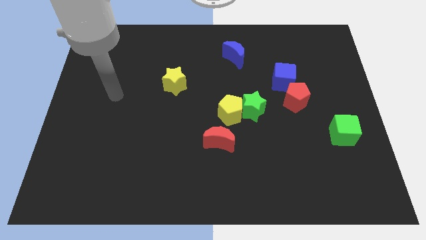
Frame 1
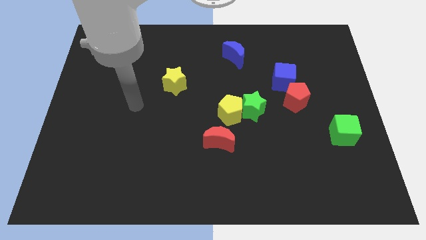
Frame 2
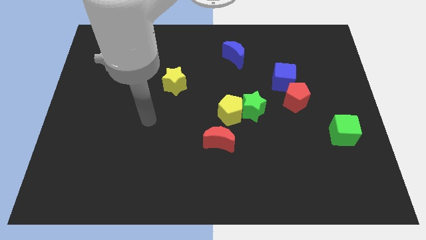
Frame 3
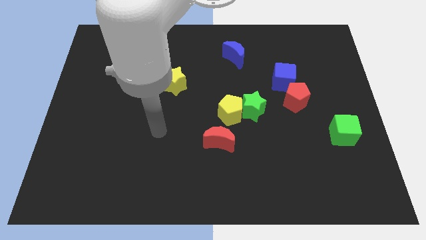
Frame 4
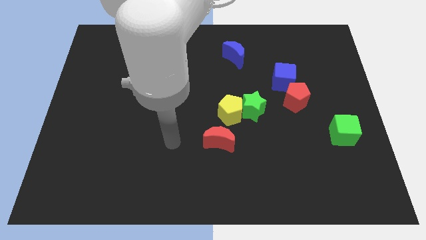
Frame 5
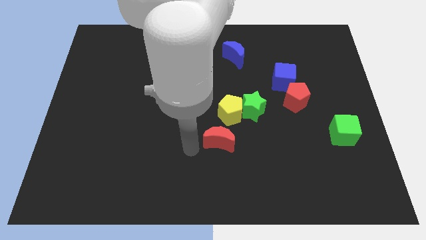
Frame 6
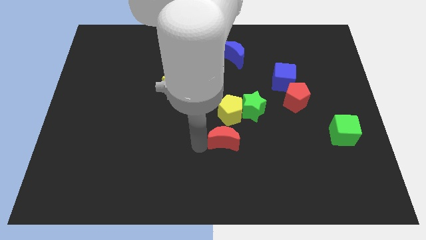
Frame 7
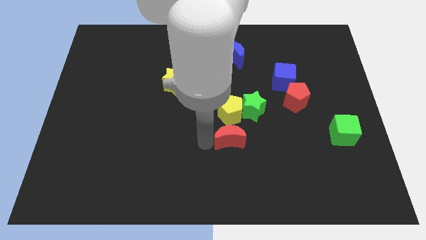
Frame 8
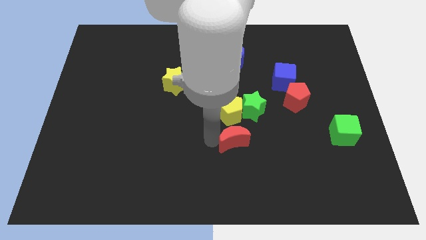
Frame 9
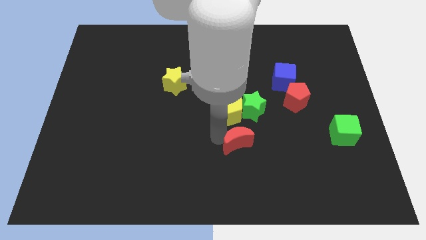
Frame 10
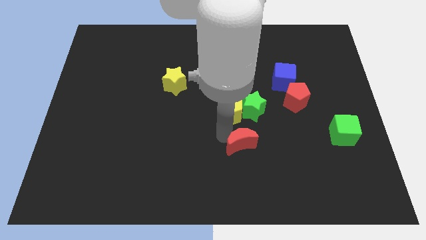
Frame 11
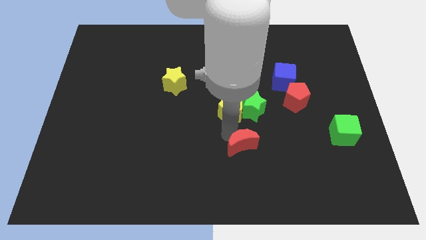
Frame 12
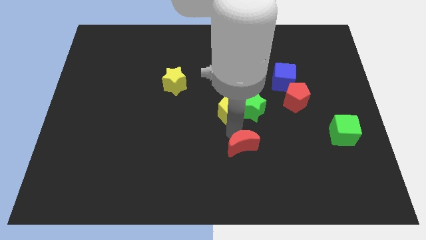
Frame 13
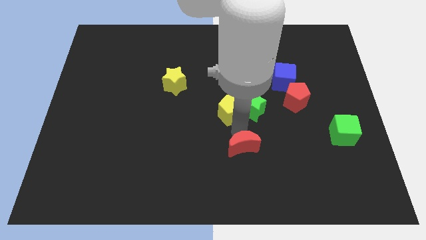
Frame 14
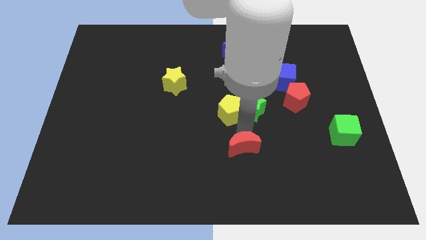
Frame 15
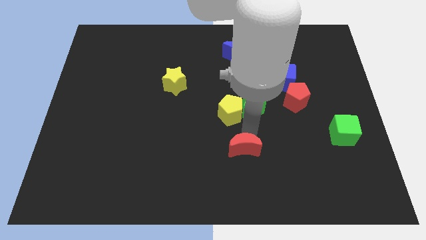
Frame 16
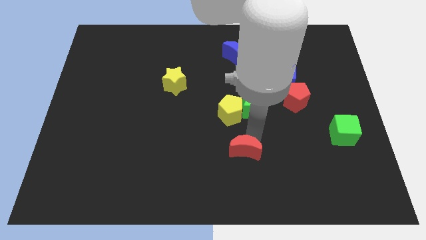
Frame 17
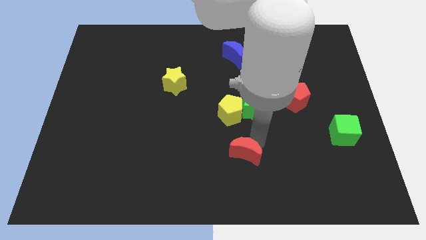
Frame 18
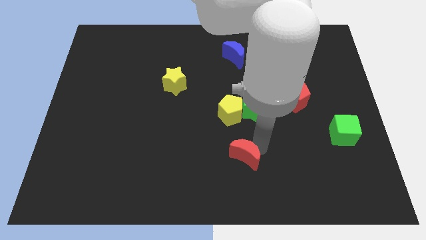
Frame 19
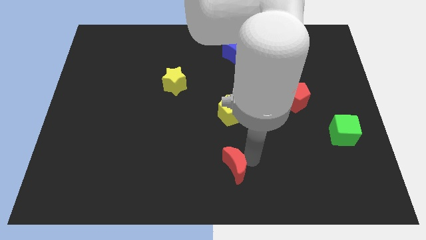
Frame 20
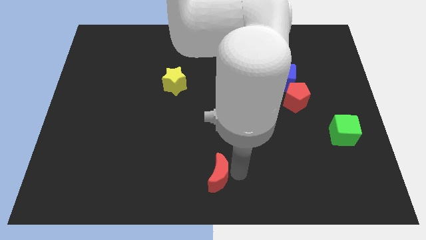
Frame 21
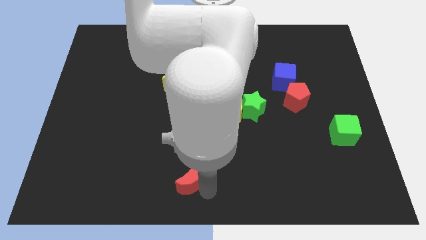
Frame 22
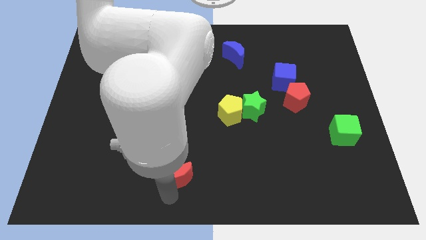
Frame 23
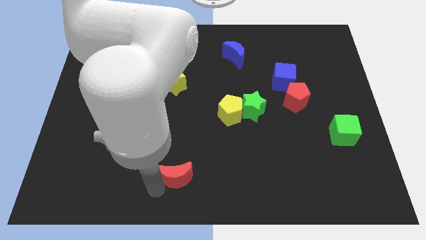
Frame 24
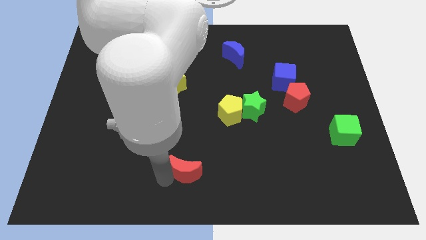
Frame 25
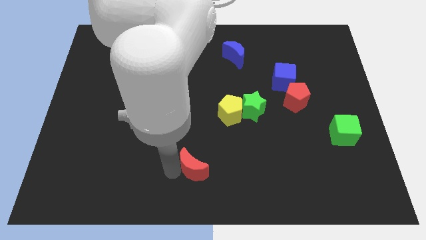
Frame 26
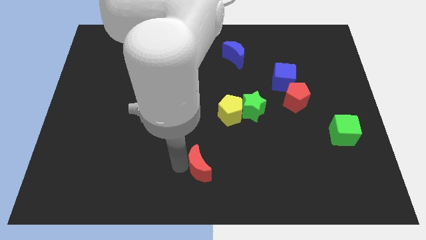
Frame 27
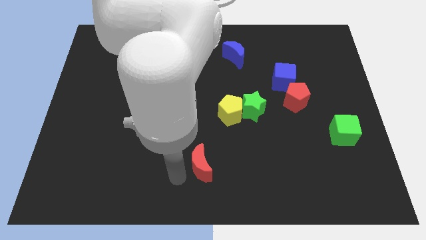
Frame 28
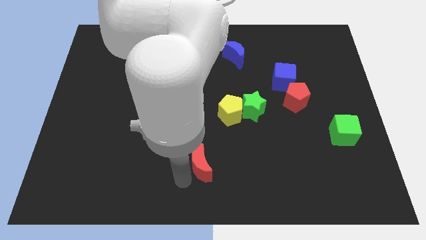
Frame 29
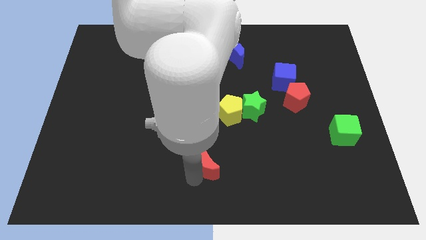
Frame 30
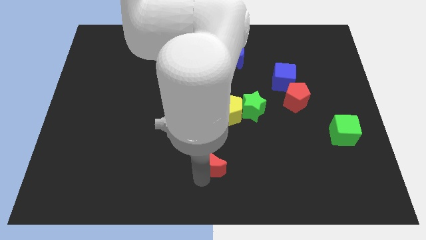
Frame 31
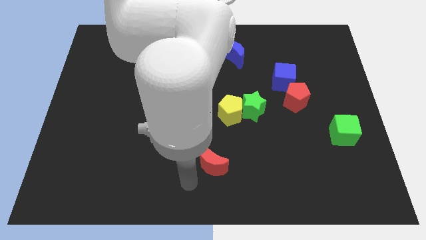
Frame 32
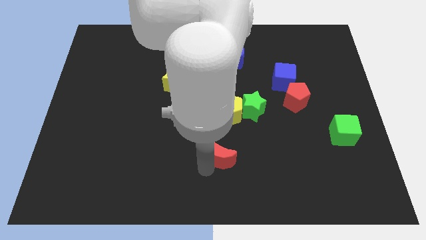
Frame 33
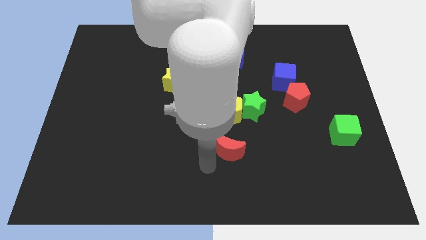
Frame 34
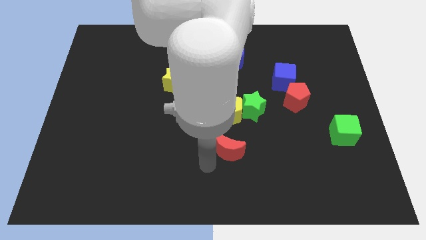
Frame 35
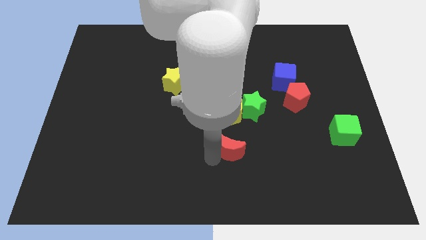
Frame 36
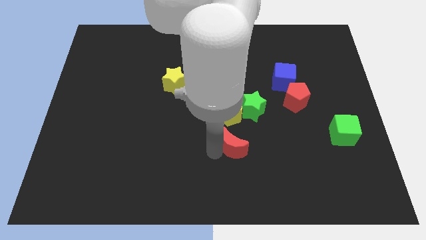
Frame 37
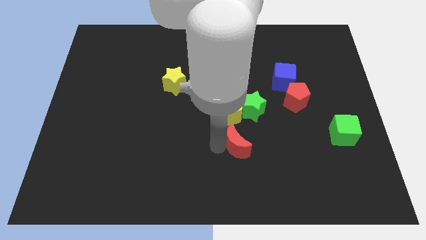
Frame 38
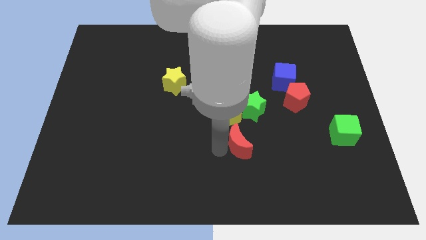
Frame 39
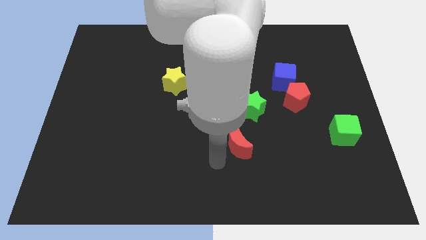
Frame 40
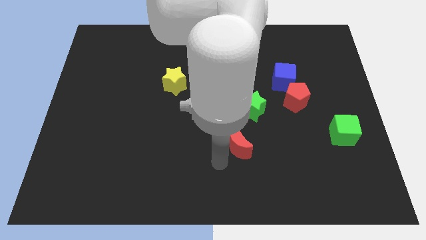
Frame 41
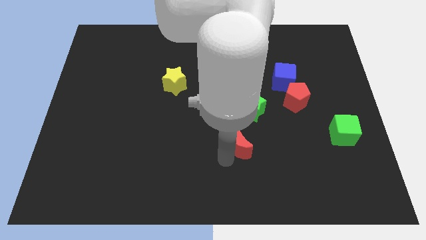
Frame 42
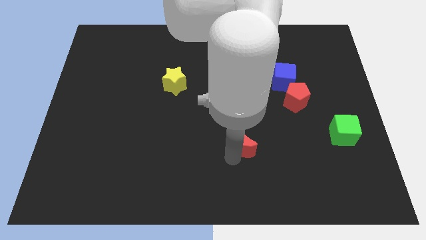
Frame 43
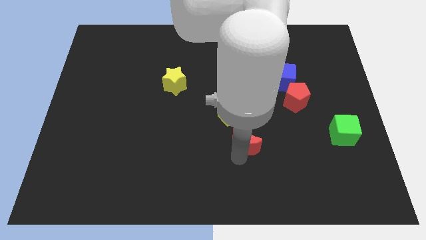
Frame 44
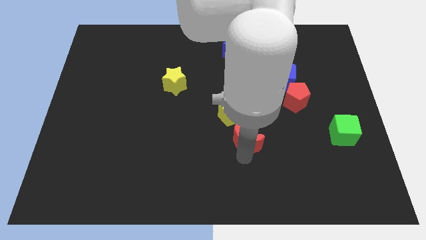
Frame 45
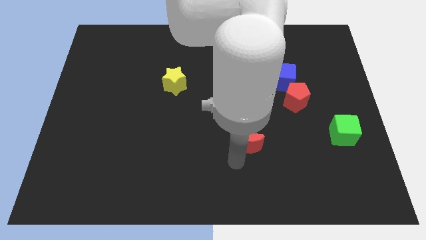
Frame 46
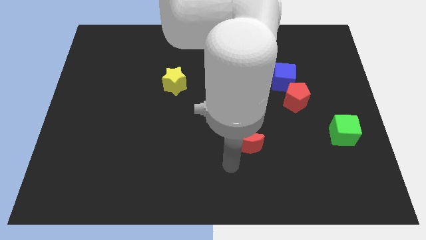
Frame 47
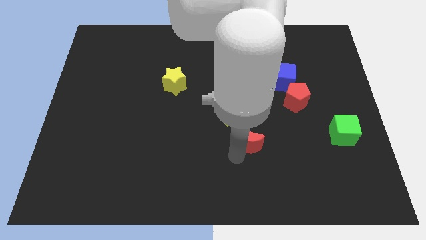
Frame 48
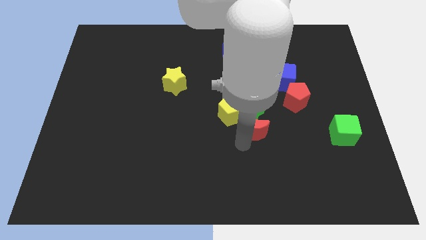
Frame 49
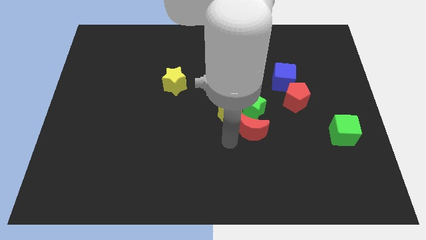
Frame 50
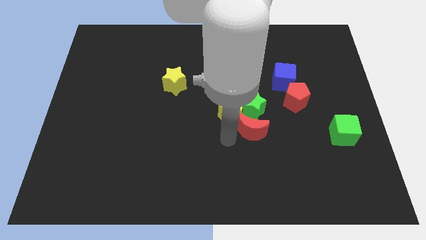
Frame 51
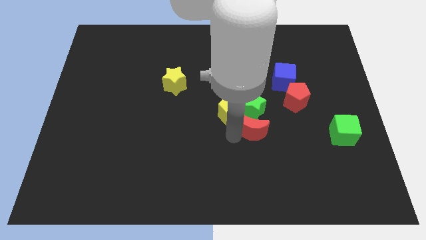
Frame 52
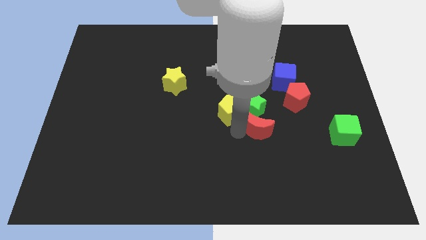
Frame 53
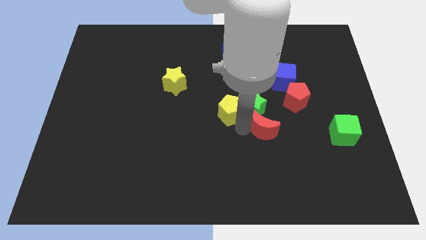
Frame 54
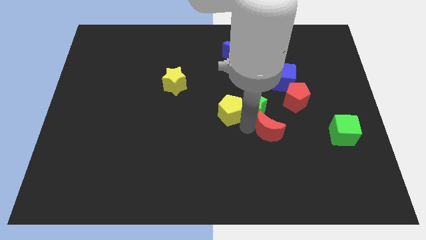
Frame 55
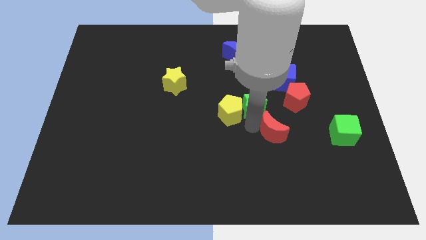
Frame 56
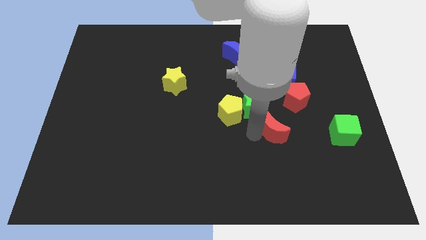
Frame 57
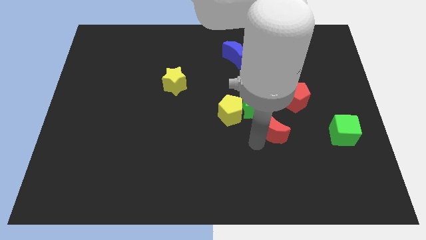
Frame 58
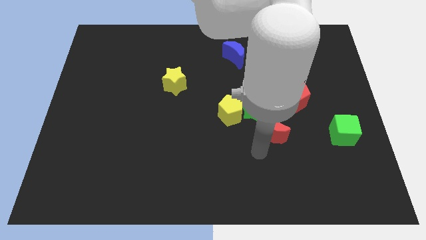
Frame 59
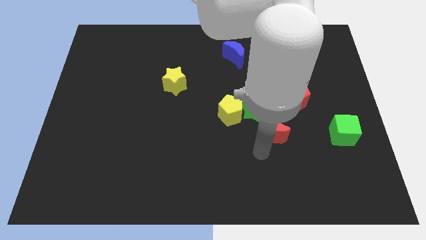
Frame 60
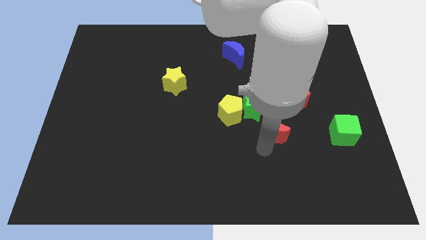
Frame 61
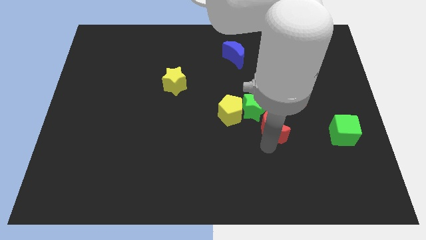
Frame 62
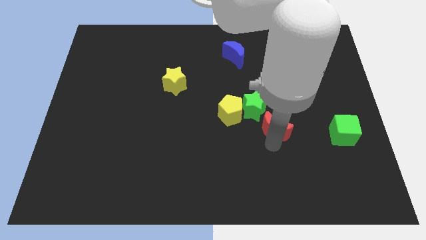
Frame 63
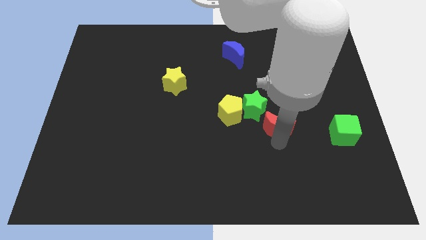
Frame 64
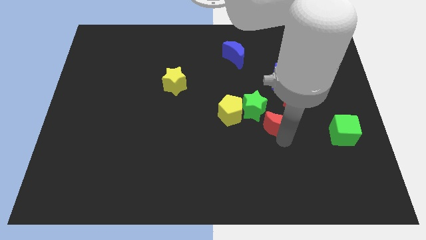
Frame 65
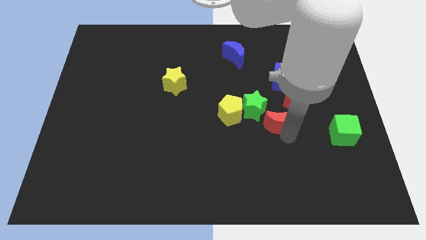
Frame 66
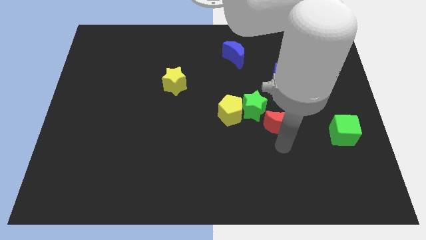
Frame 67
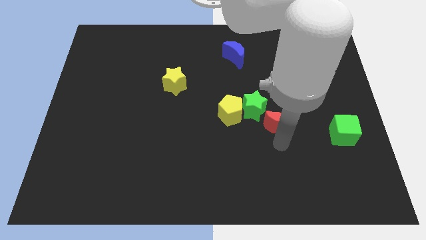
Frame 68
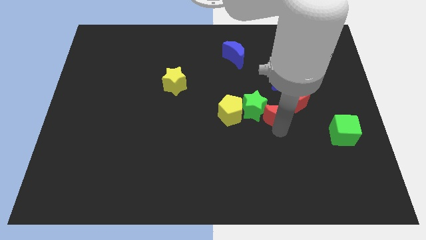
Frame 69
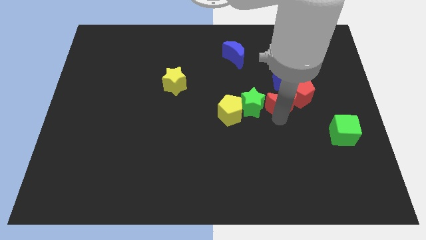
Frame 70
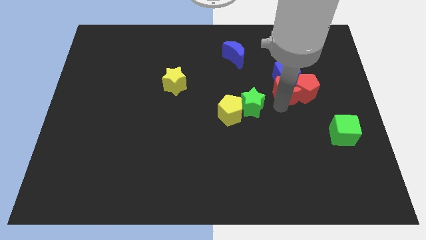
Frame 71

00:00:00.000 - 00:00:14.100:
move the red moon to the blue cube

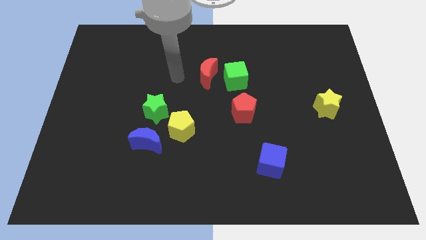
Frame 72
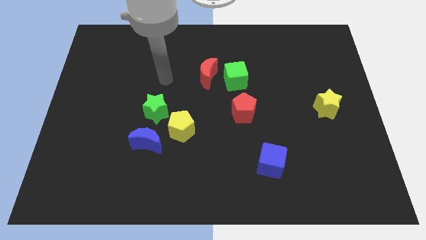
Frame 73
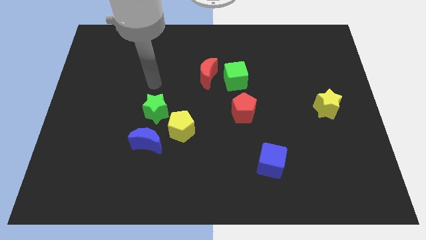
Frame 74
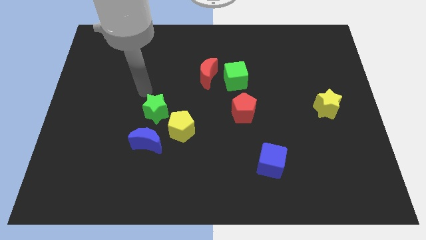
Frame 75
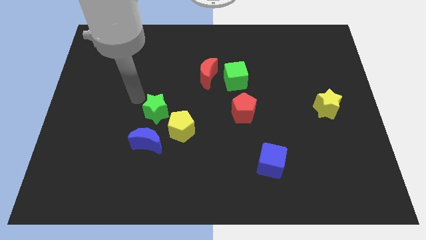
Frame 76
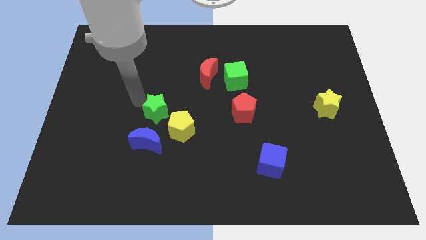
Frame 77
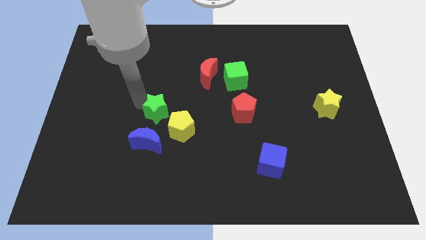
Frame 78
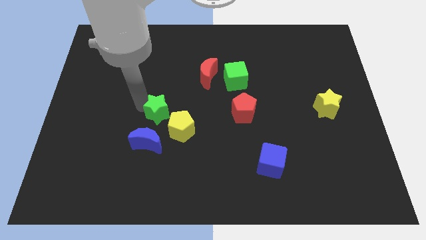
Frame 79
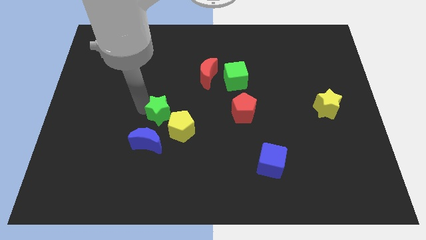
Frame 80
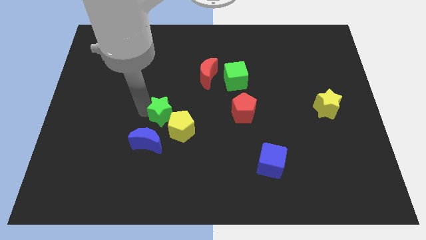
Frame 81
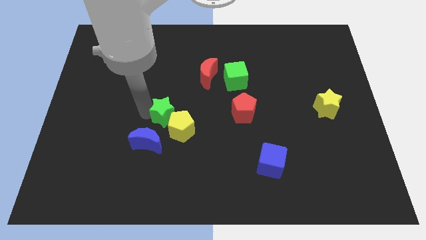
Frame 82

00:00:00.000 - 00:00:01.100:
move the green star next to the yellow pentagon
